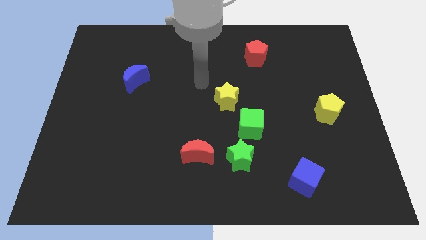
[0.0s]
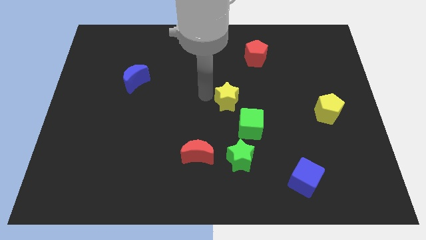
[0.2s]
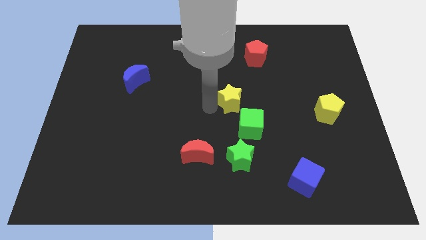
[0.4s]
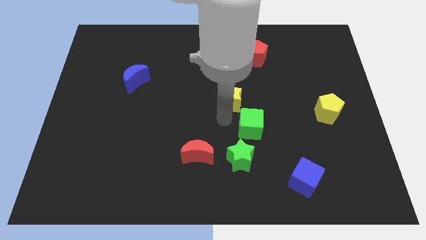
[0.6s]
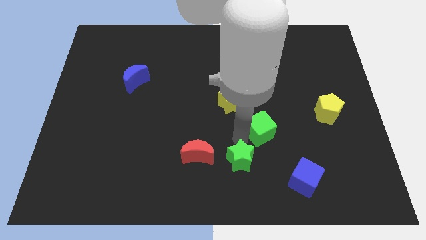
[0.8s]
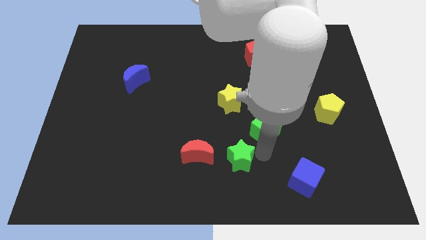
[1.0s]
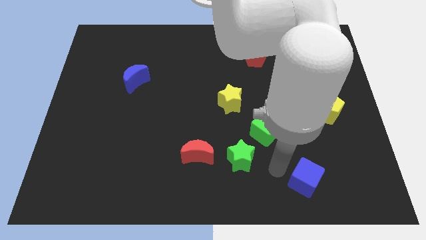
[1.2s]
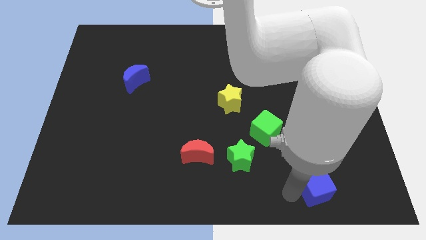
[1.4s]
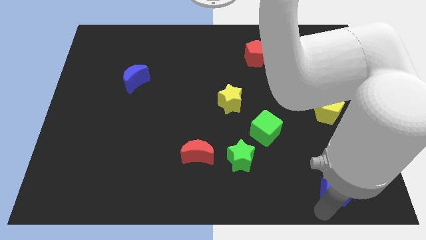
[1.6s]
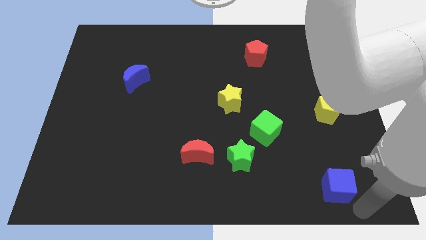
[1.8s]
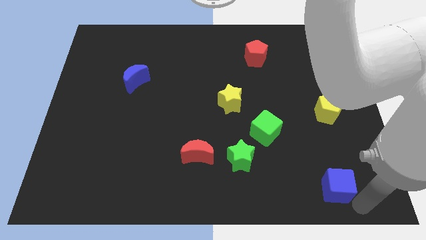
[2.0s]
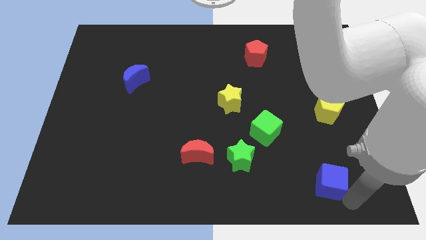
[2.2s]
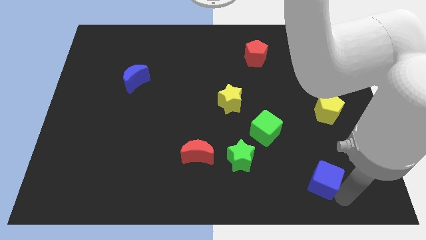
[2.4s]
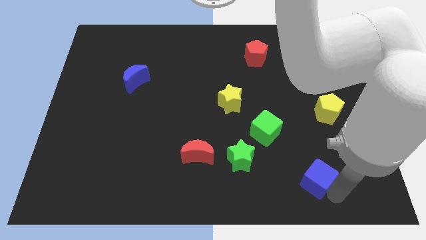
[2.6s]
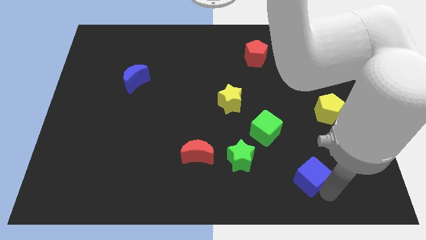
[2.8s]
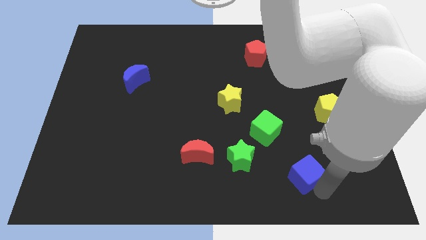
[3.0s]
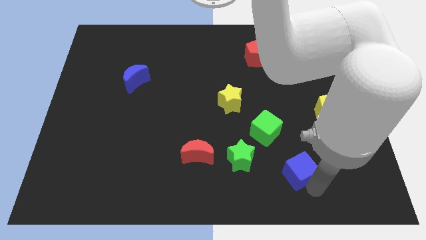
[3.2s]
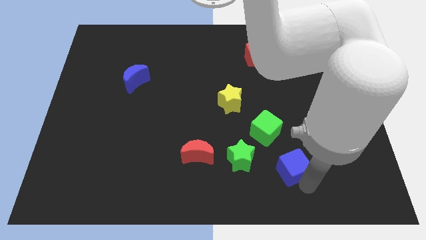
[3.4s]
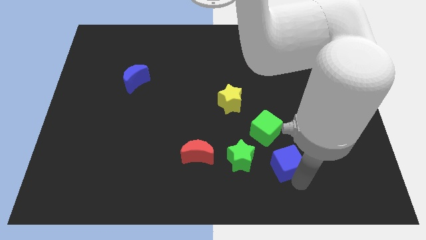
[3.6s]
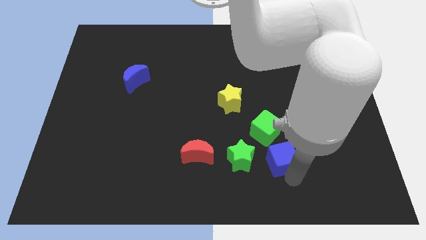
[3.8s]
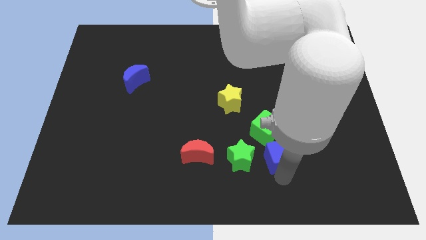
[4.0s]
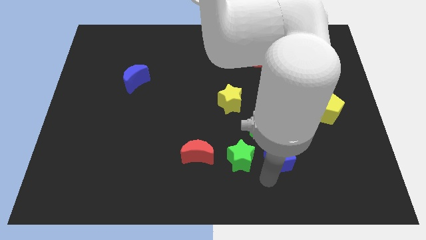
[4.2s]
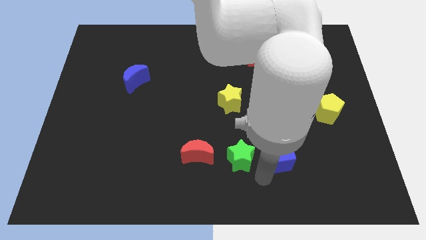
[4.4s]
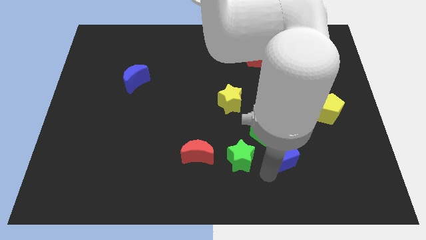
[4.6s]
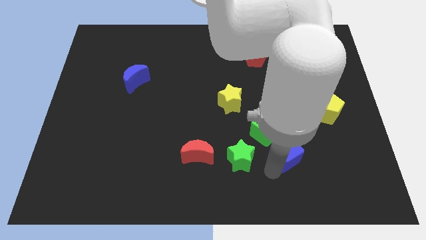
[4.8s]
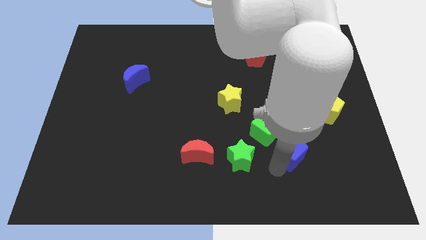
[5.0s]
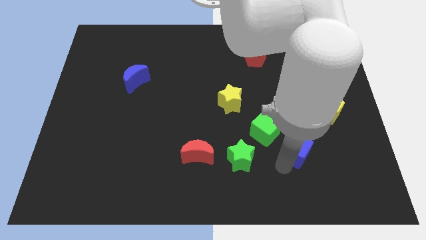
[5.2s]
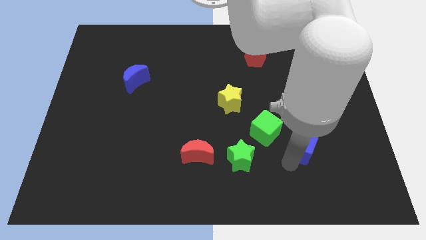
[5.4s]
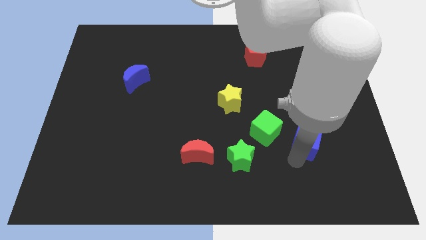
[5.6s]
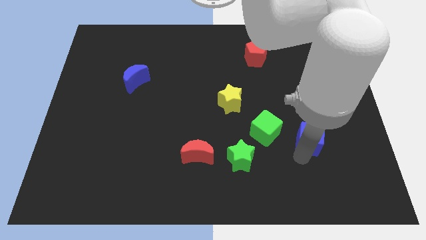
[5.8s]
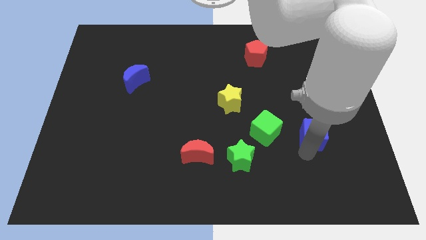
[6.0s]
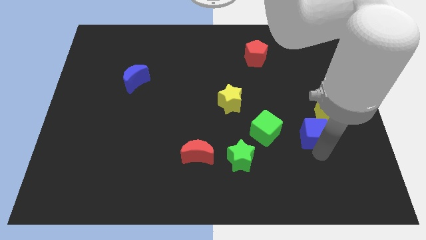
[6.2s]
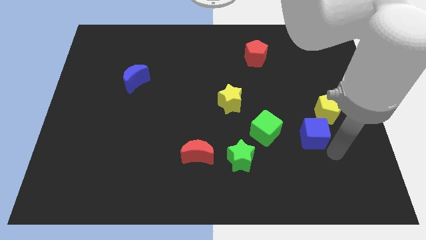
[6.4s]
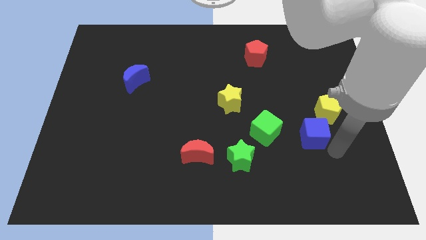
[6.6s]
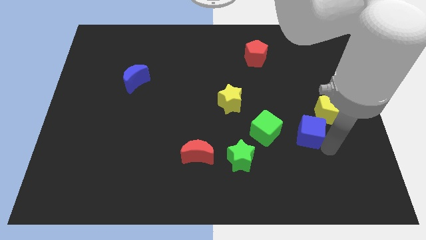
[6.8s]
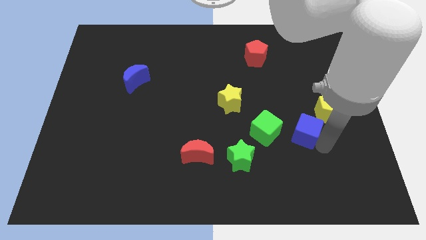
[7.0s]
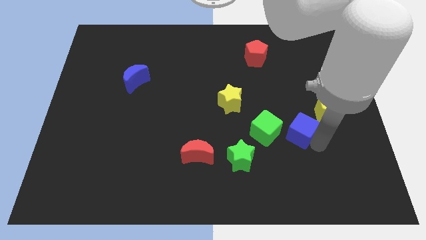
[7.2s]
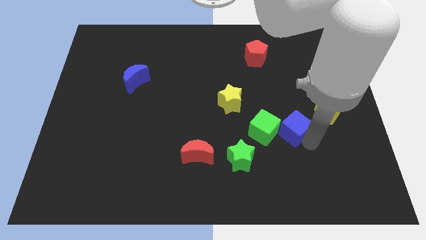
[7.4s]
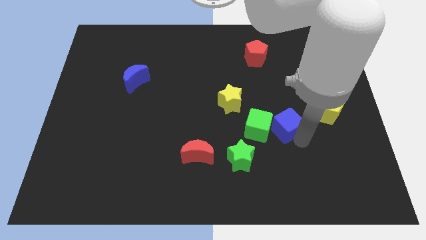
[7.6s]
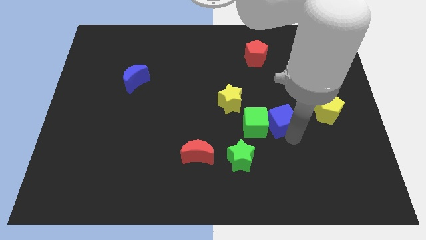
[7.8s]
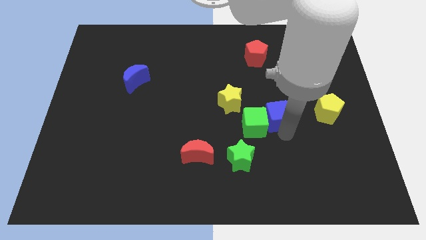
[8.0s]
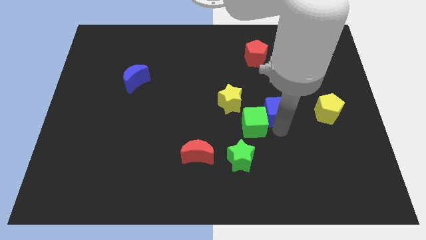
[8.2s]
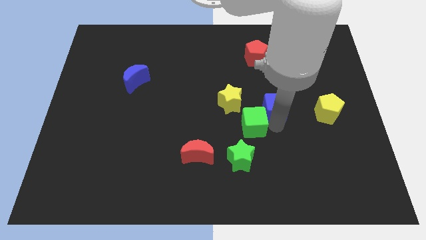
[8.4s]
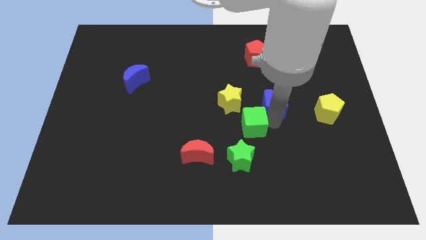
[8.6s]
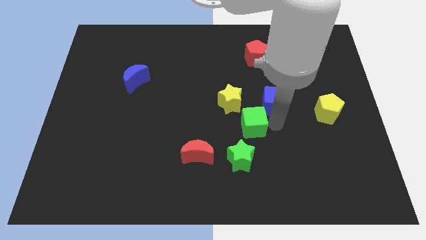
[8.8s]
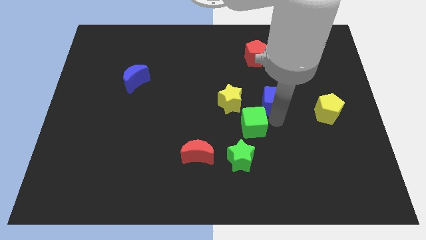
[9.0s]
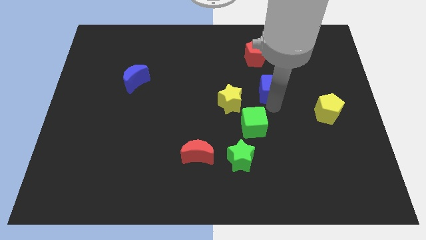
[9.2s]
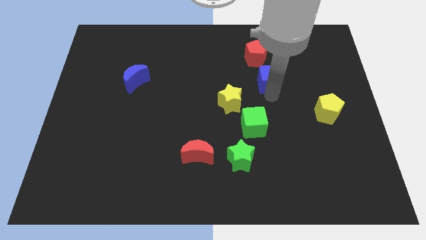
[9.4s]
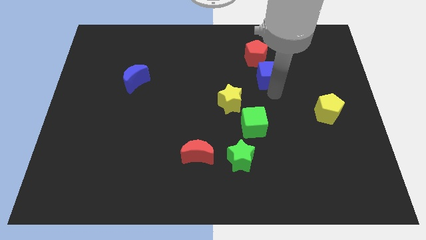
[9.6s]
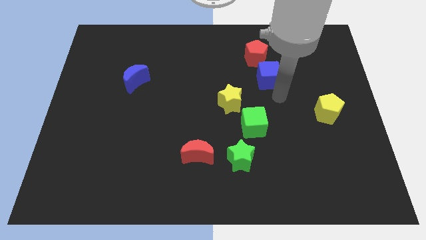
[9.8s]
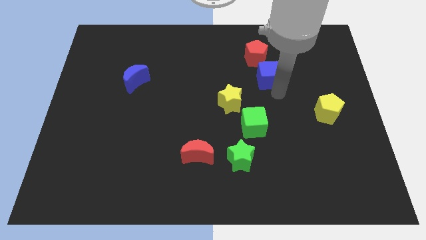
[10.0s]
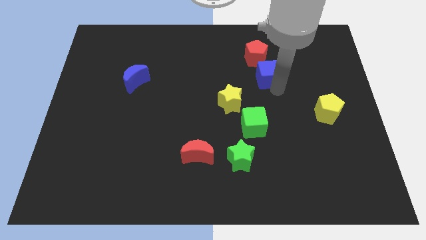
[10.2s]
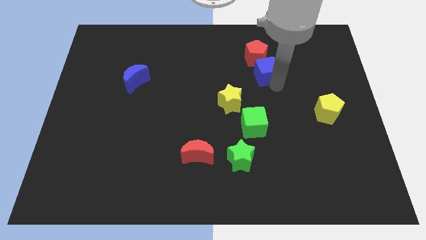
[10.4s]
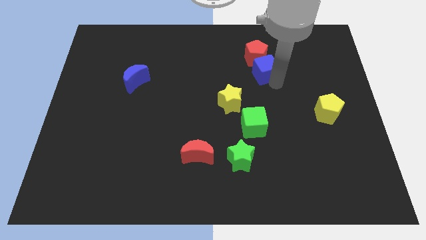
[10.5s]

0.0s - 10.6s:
push the blue cube close to the red pentagon

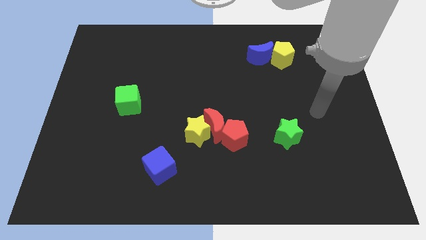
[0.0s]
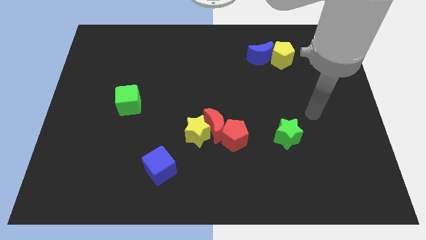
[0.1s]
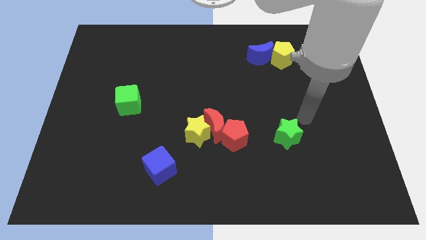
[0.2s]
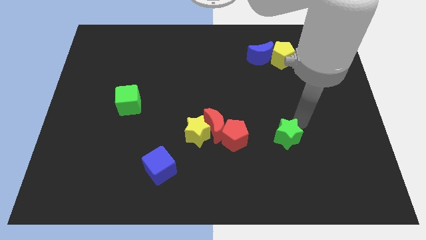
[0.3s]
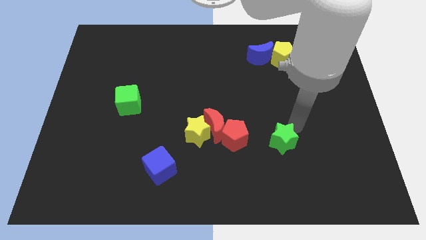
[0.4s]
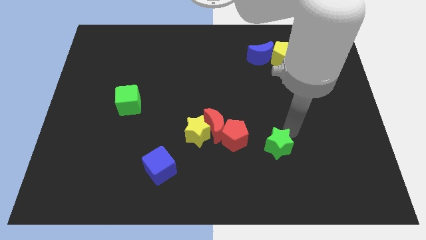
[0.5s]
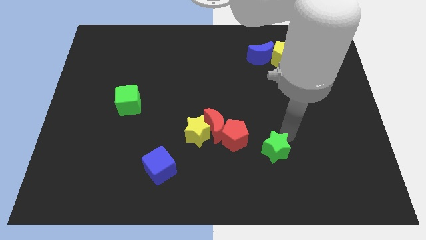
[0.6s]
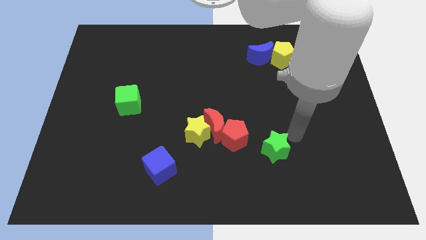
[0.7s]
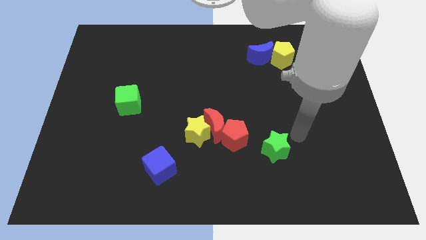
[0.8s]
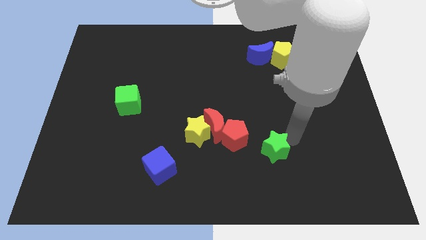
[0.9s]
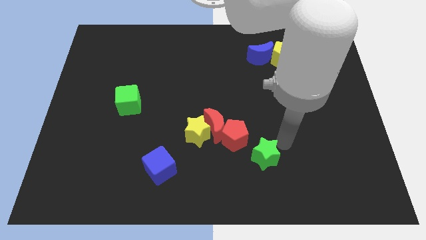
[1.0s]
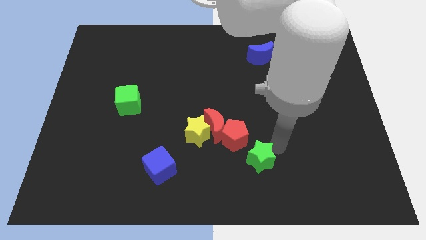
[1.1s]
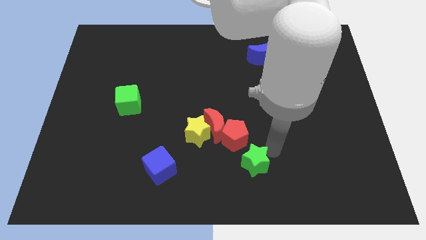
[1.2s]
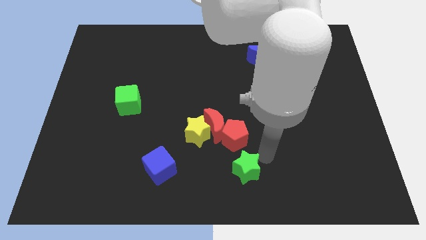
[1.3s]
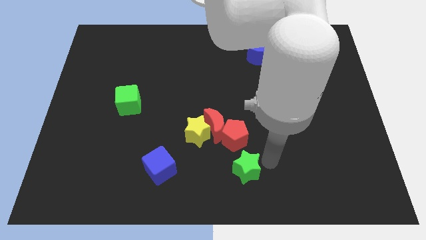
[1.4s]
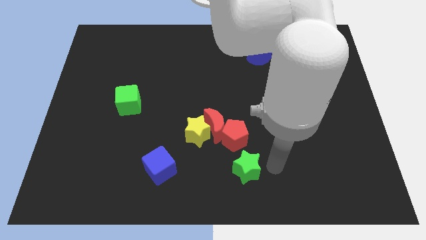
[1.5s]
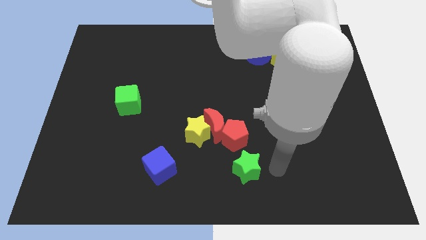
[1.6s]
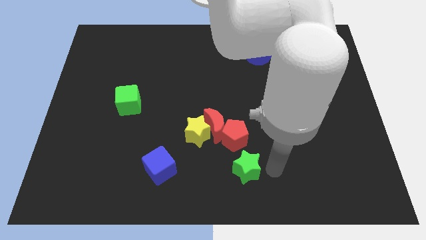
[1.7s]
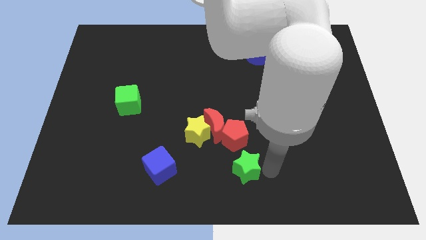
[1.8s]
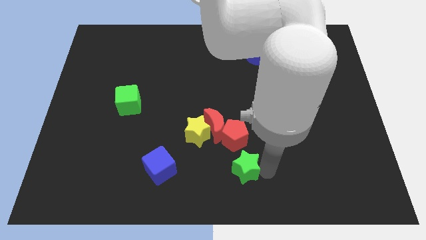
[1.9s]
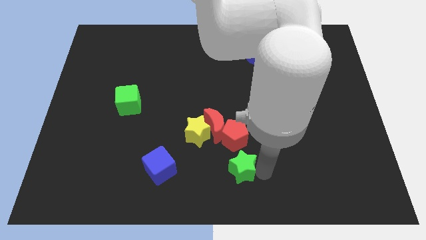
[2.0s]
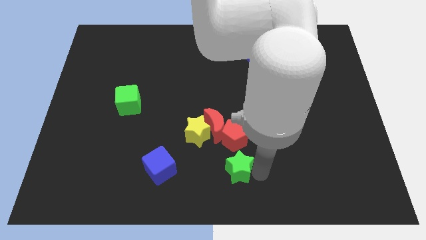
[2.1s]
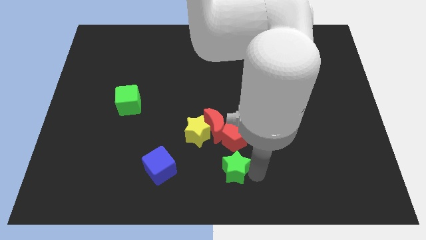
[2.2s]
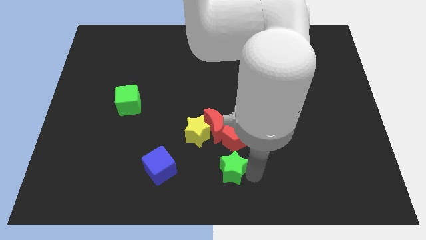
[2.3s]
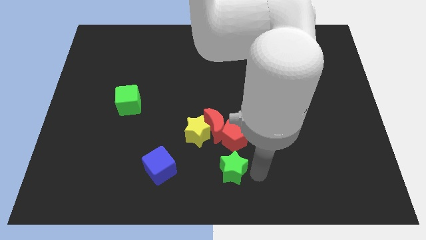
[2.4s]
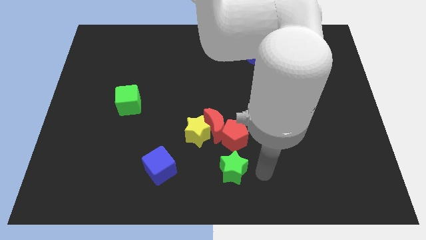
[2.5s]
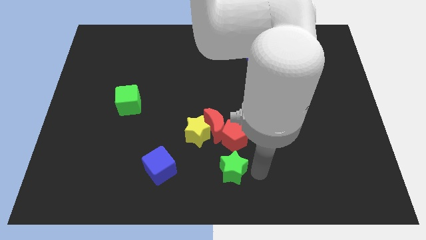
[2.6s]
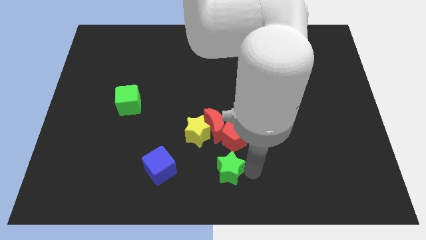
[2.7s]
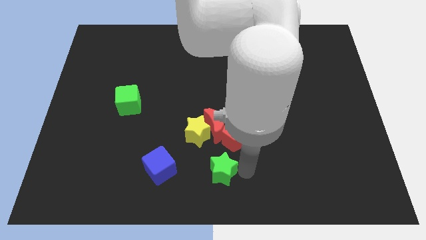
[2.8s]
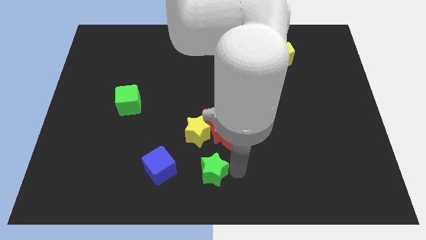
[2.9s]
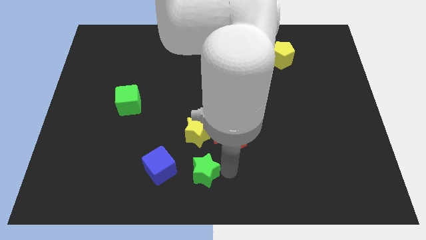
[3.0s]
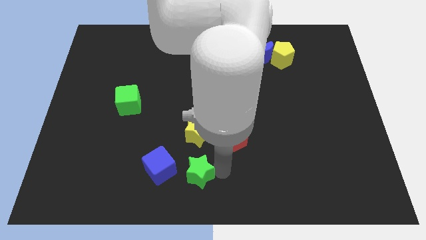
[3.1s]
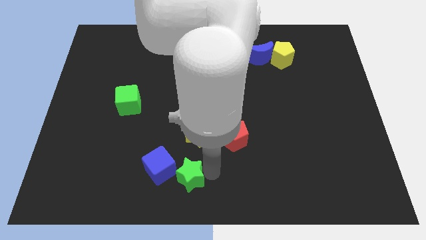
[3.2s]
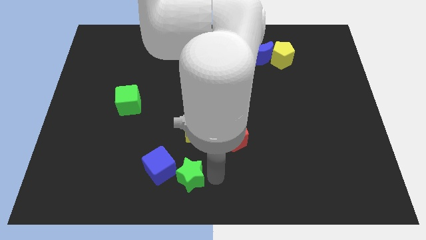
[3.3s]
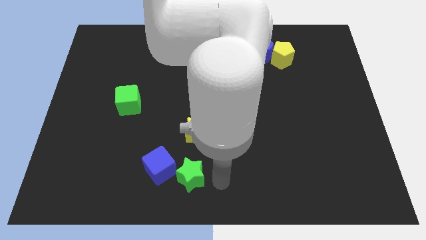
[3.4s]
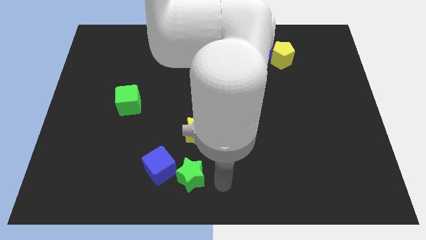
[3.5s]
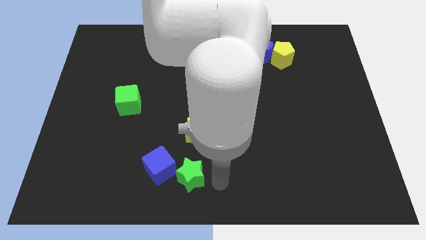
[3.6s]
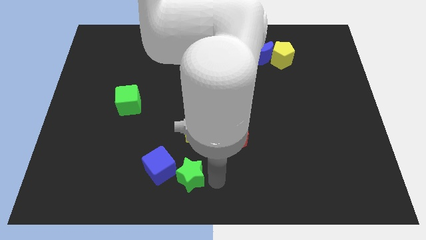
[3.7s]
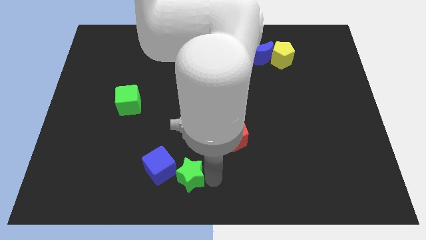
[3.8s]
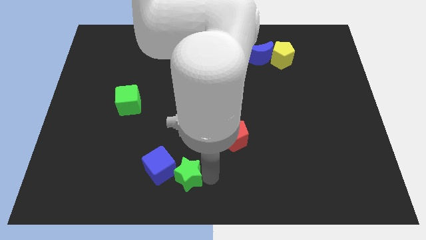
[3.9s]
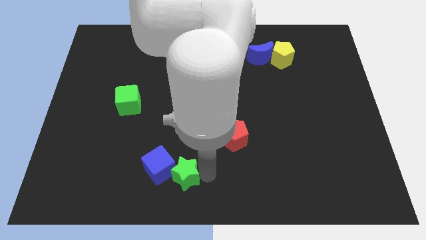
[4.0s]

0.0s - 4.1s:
slide the green star close to the blue cube
